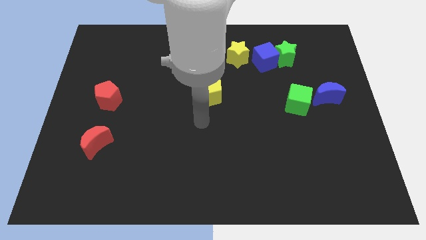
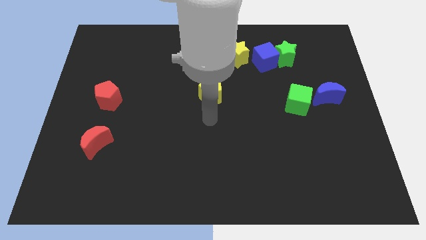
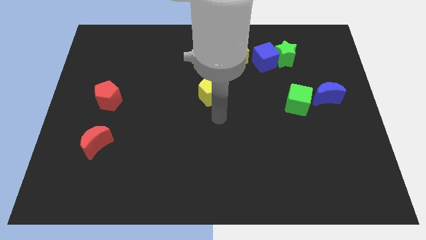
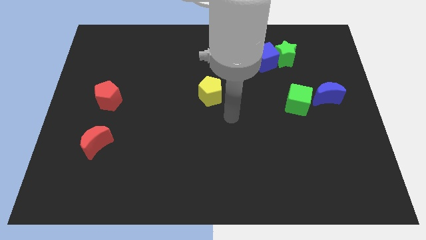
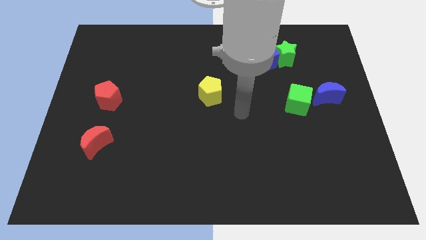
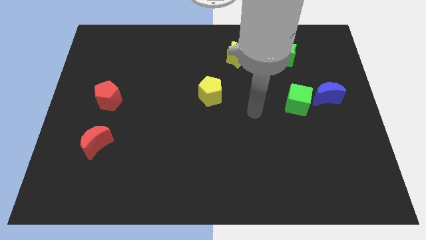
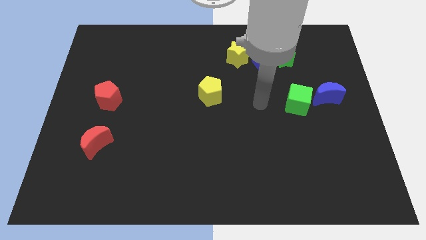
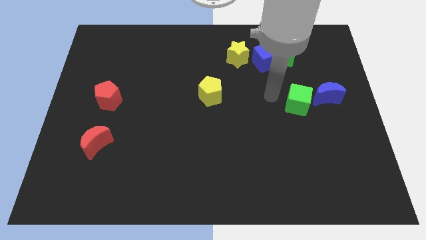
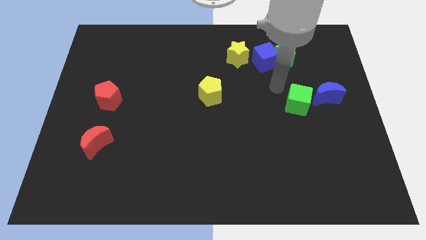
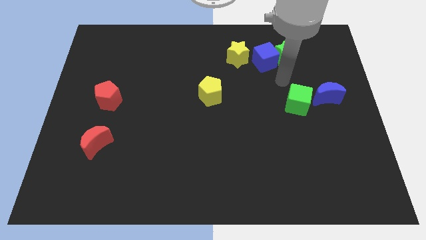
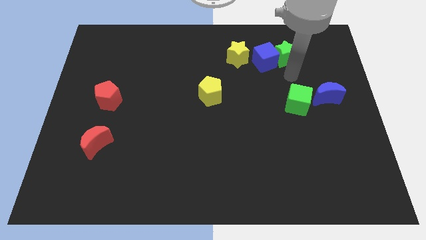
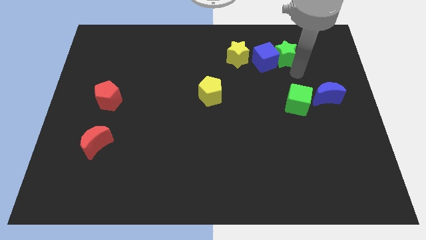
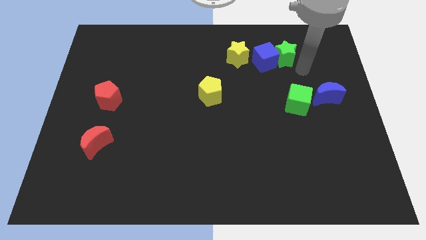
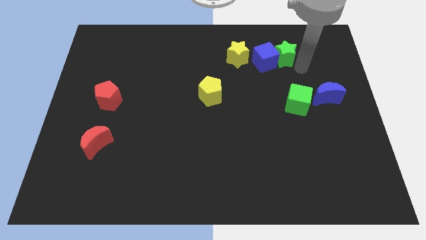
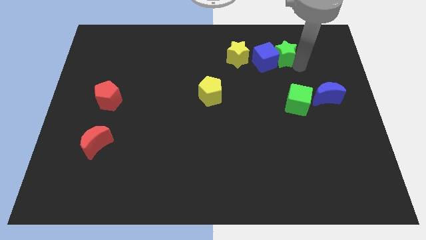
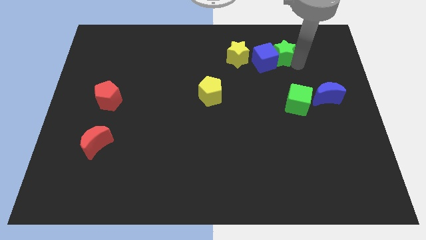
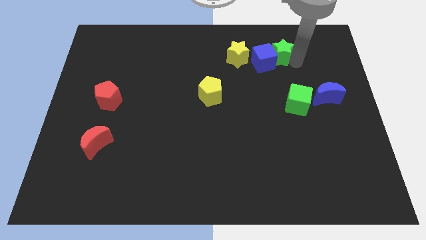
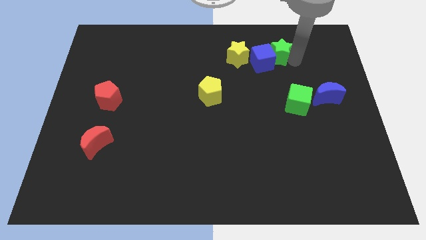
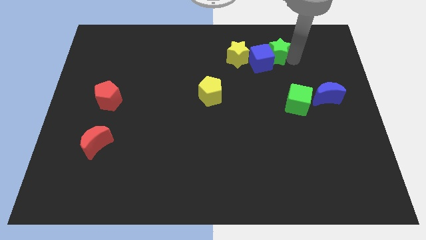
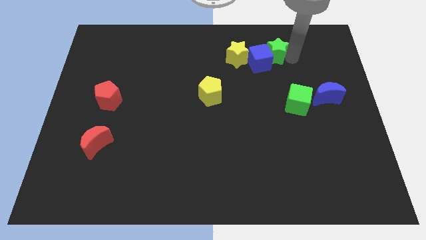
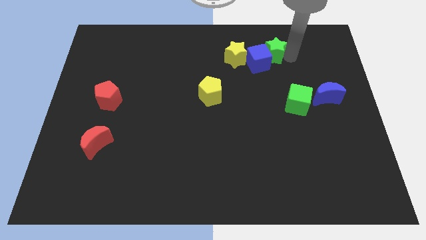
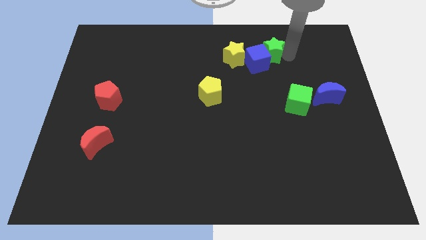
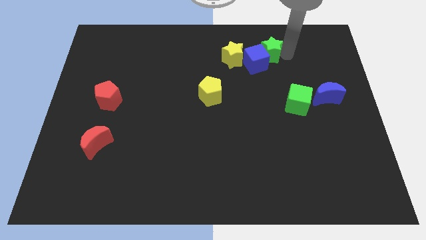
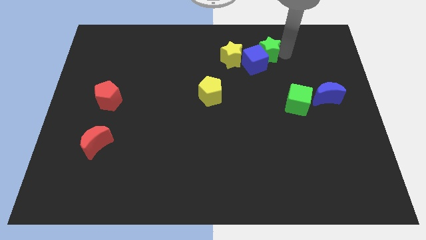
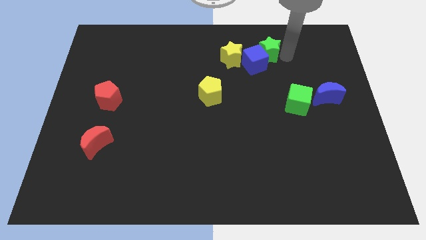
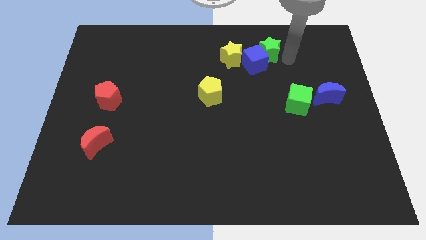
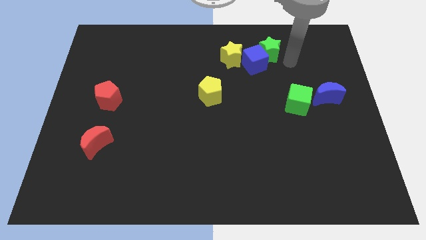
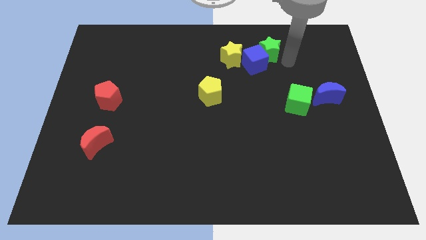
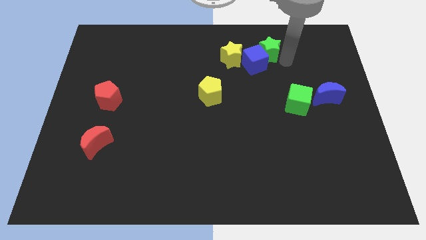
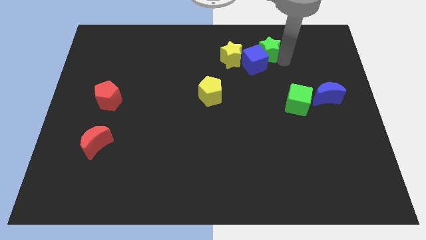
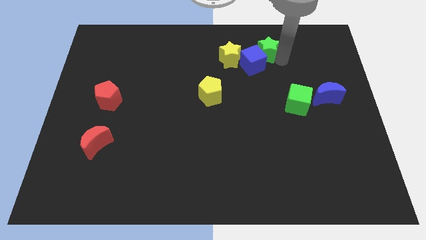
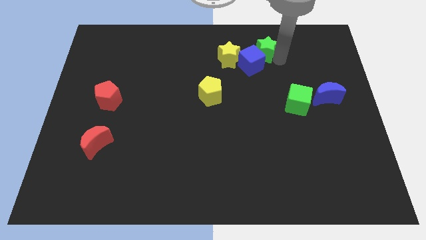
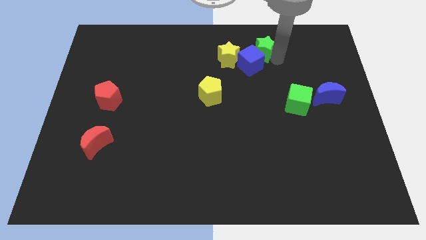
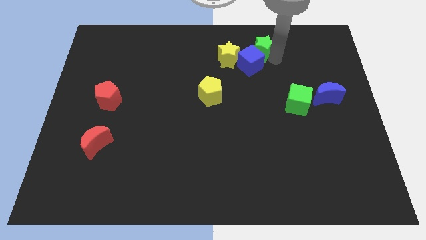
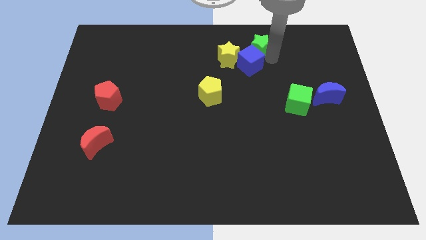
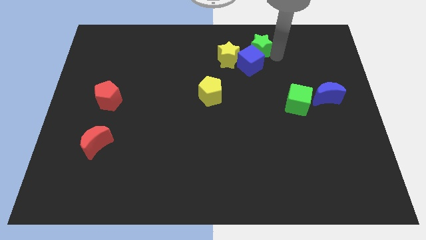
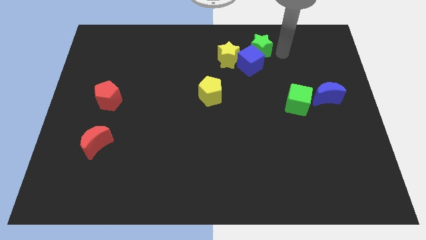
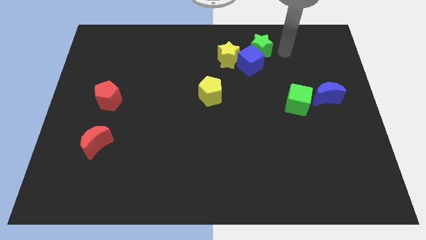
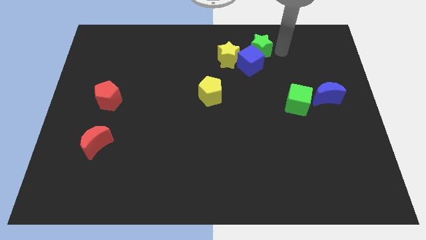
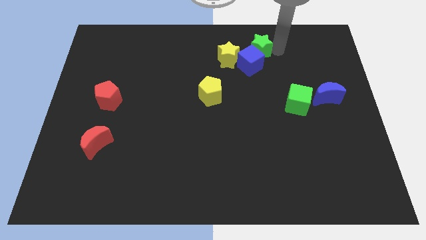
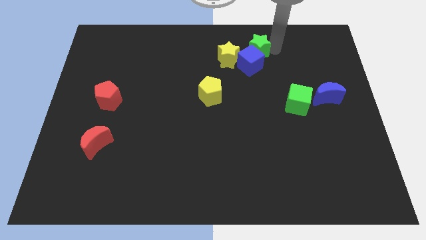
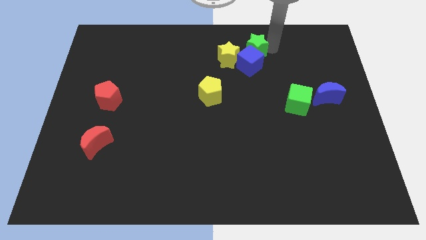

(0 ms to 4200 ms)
move the green star left a little bit

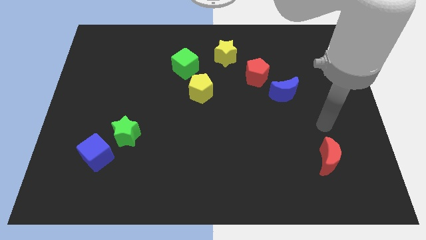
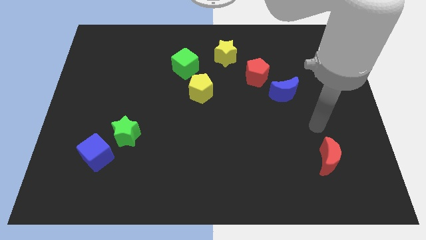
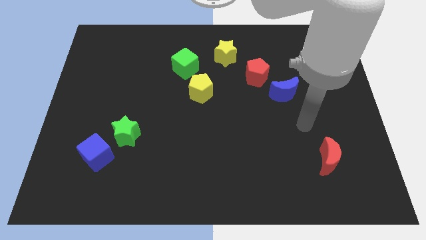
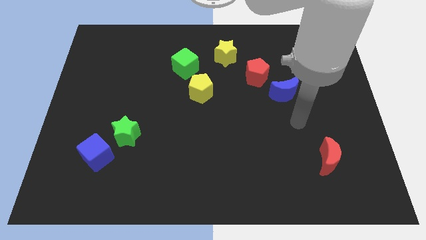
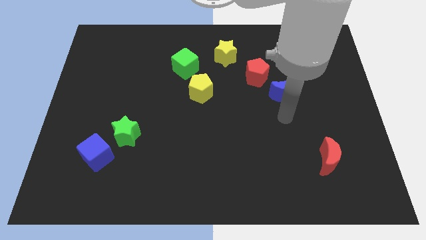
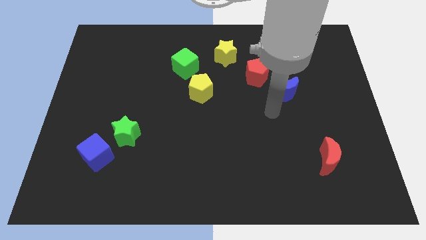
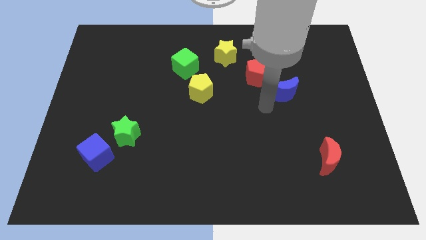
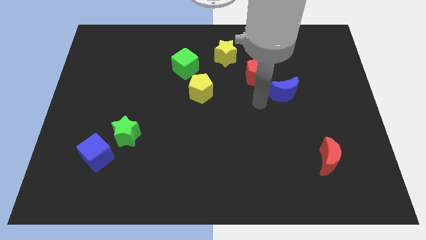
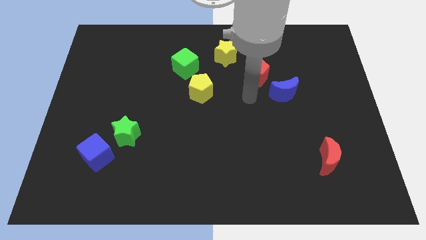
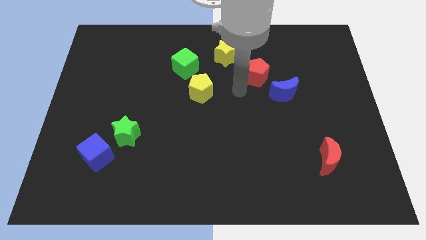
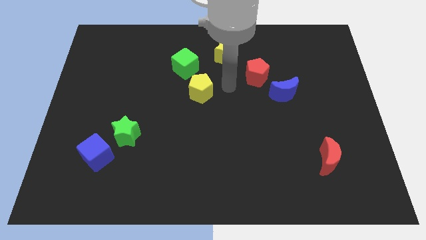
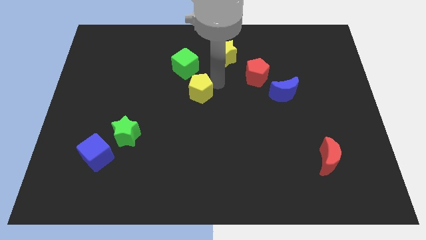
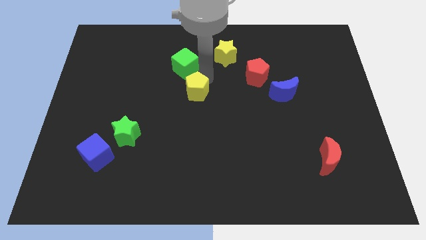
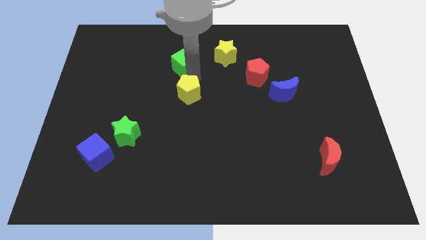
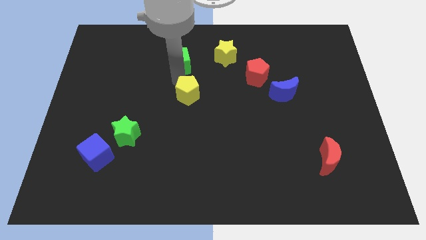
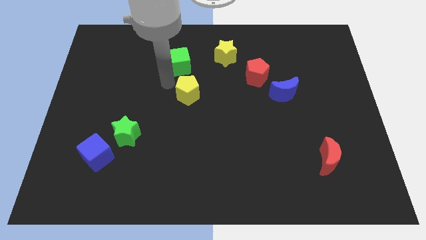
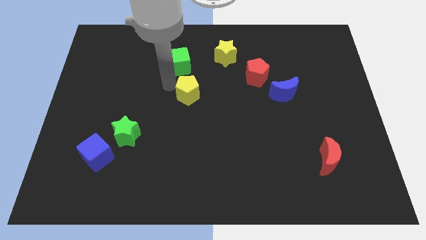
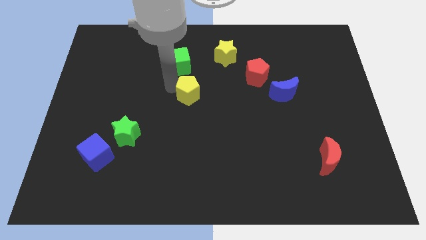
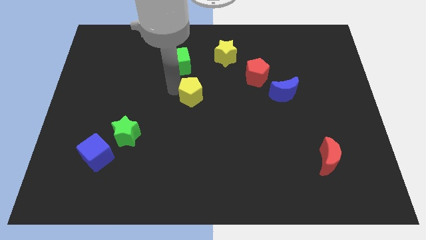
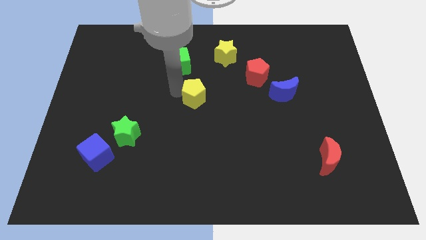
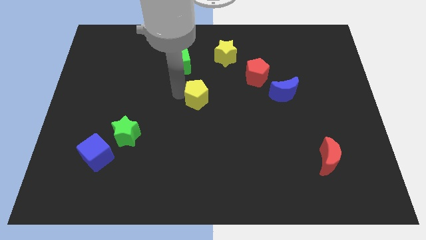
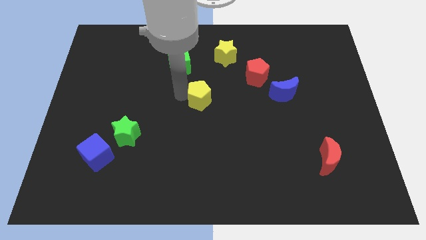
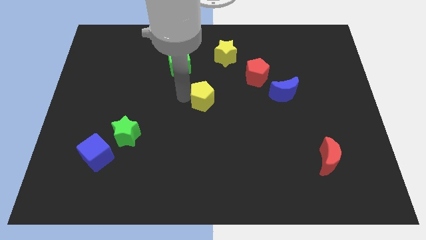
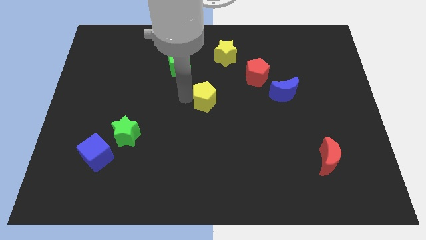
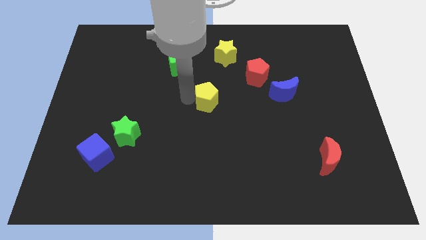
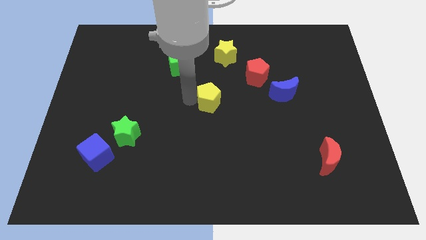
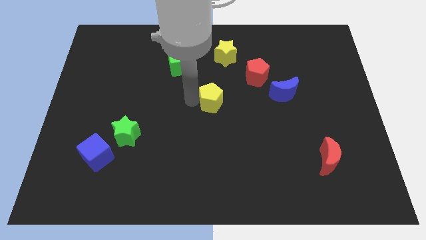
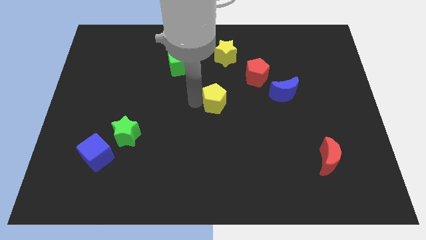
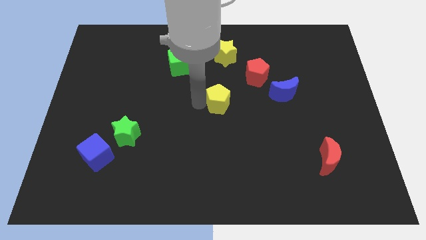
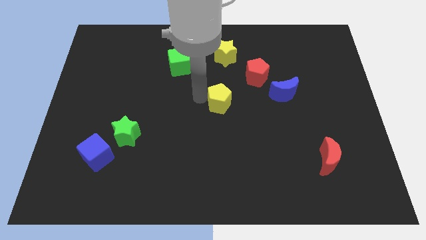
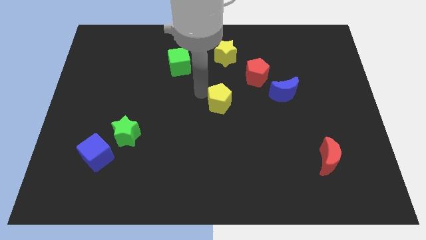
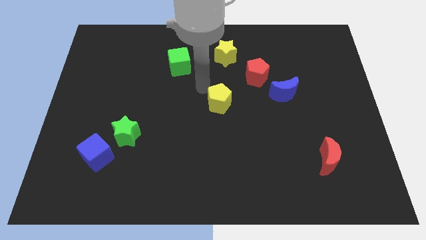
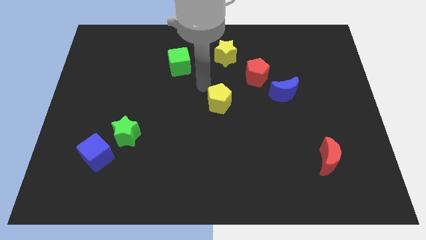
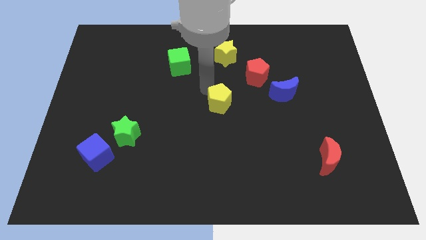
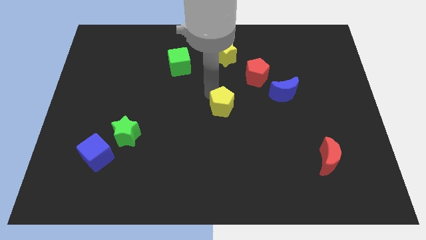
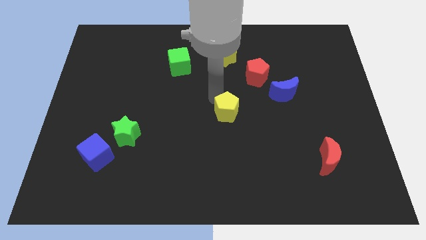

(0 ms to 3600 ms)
push the yellow pentagon a little downwards and right
